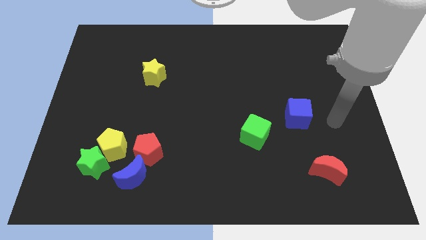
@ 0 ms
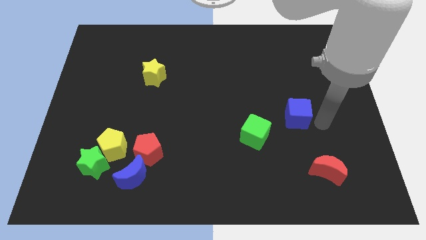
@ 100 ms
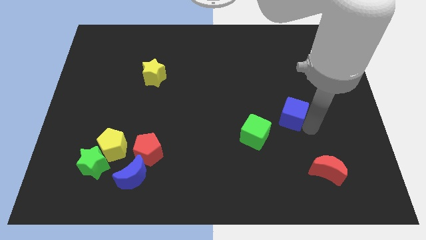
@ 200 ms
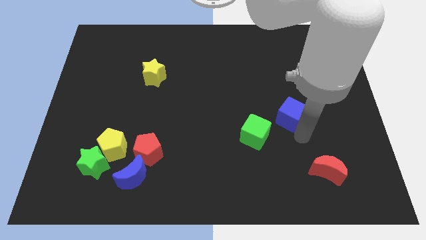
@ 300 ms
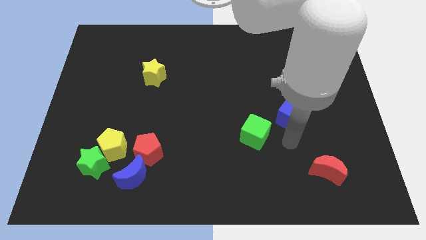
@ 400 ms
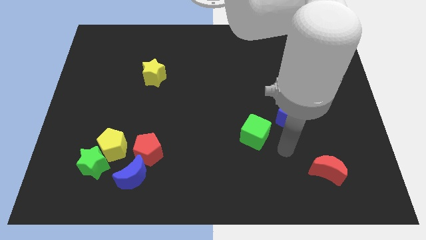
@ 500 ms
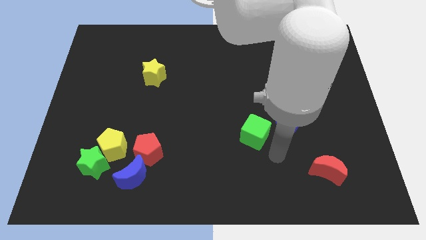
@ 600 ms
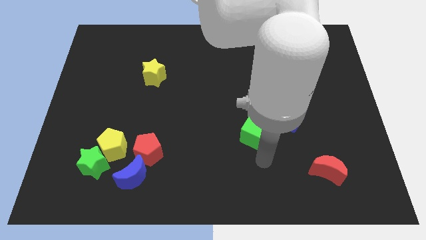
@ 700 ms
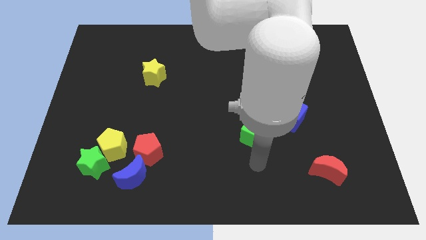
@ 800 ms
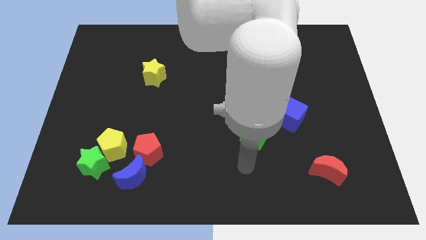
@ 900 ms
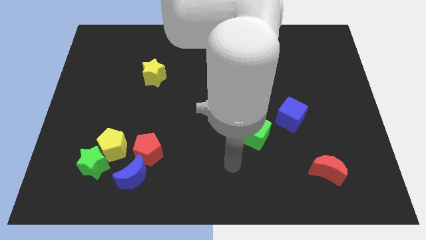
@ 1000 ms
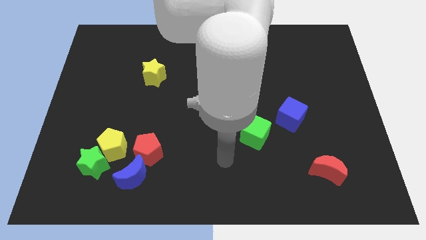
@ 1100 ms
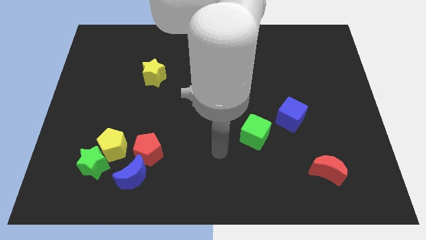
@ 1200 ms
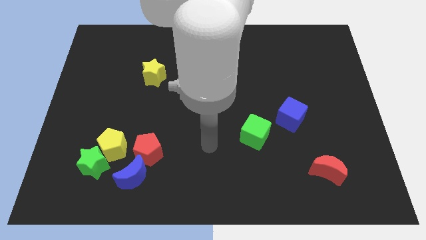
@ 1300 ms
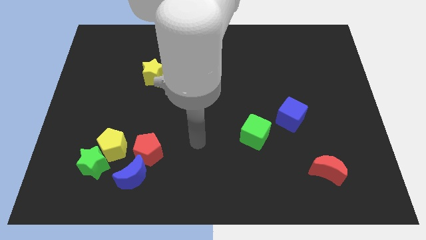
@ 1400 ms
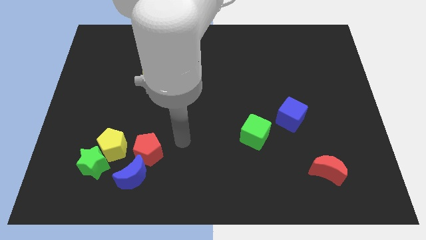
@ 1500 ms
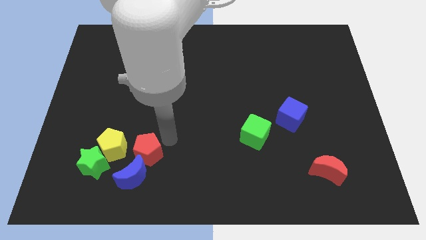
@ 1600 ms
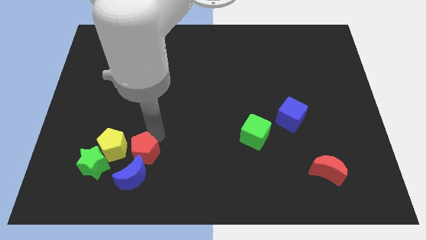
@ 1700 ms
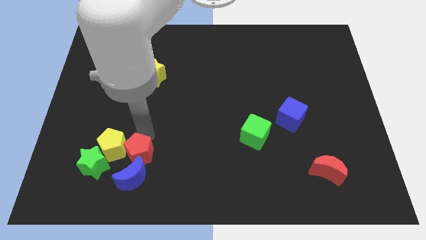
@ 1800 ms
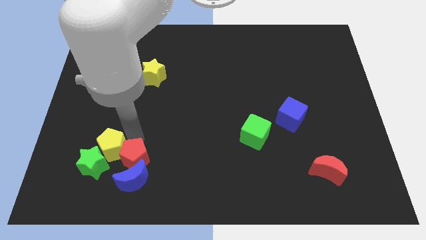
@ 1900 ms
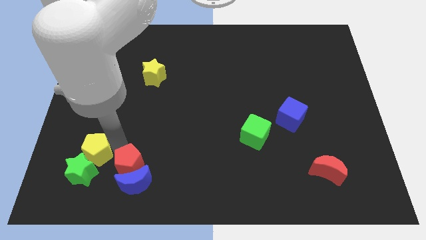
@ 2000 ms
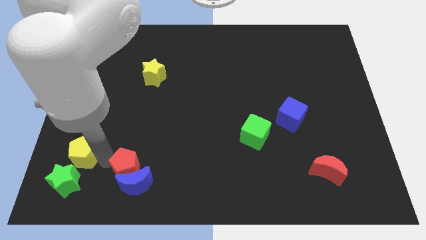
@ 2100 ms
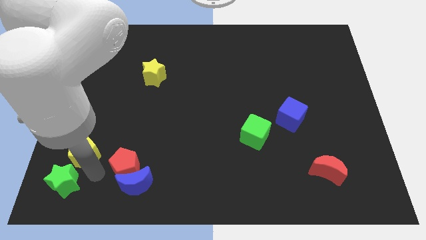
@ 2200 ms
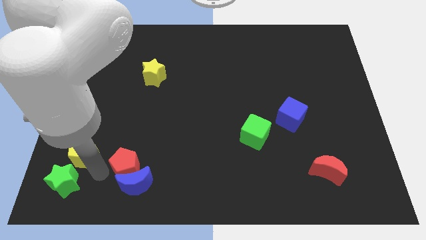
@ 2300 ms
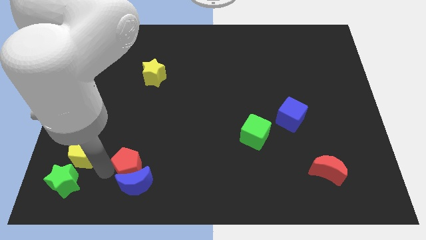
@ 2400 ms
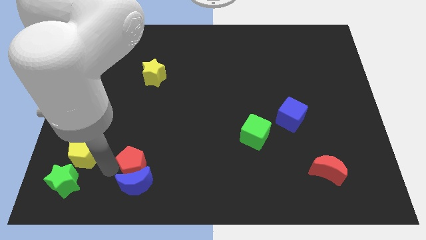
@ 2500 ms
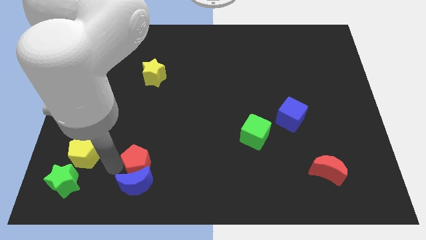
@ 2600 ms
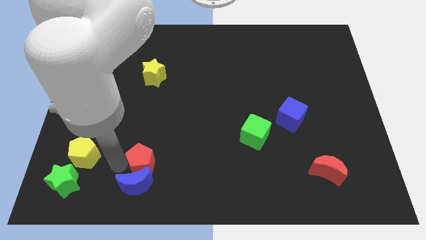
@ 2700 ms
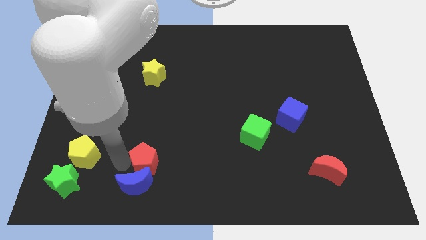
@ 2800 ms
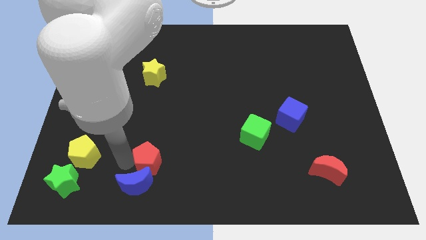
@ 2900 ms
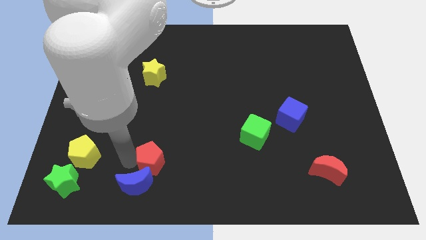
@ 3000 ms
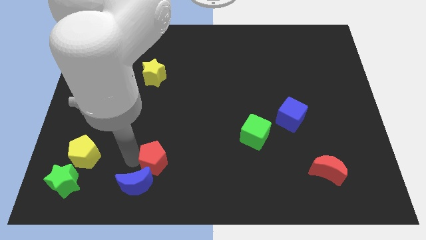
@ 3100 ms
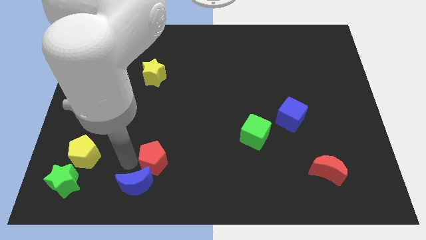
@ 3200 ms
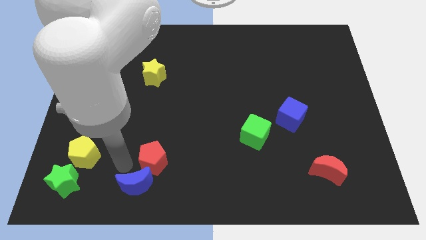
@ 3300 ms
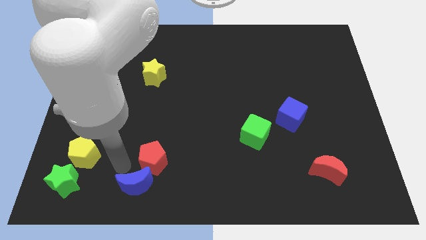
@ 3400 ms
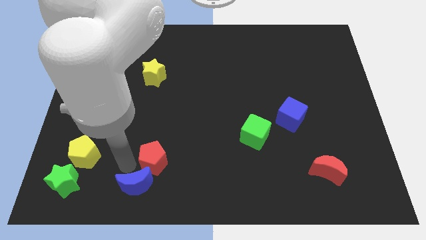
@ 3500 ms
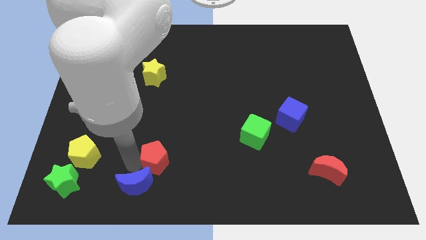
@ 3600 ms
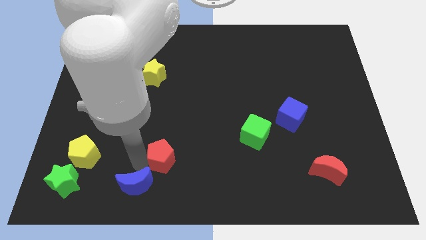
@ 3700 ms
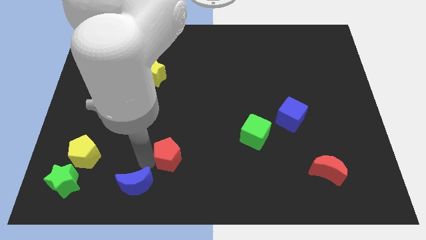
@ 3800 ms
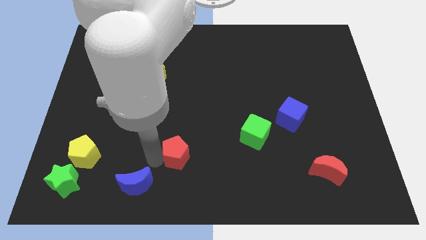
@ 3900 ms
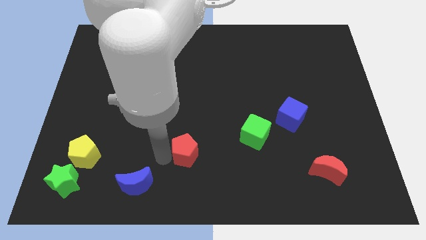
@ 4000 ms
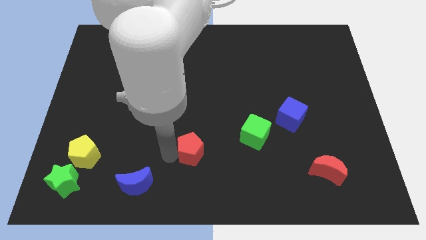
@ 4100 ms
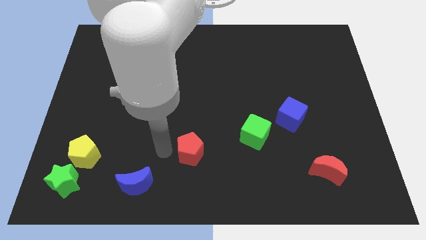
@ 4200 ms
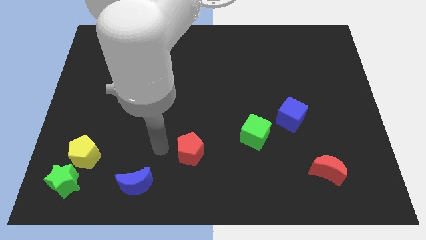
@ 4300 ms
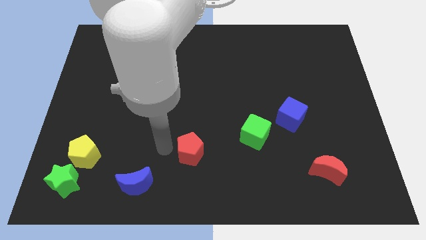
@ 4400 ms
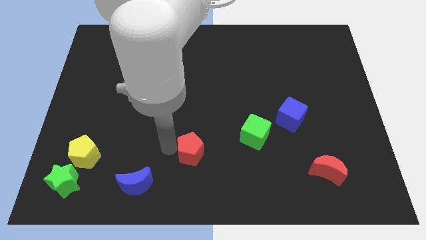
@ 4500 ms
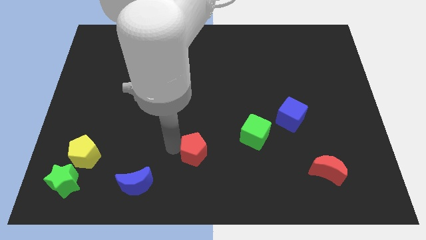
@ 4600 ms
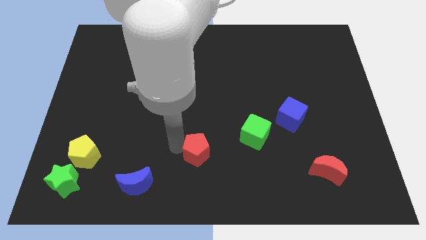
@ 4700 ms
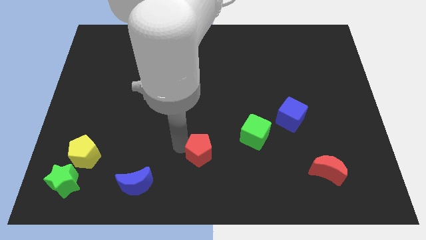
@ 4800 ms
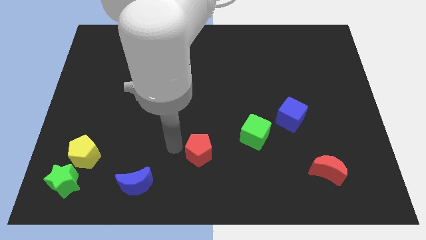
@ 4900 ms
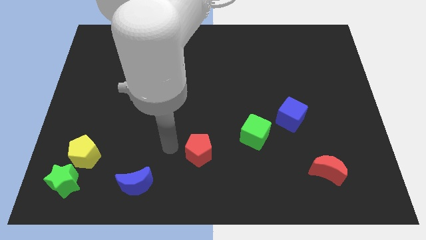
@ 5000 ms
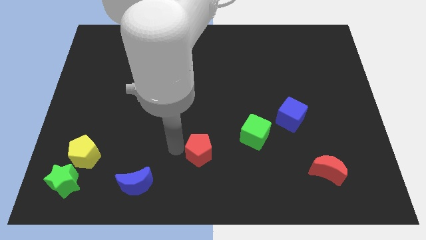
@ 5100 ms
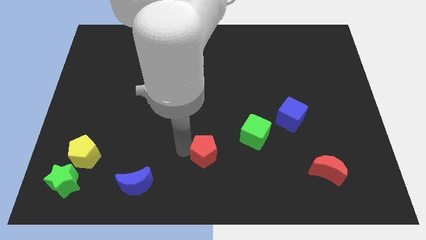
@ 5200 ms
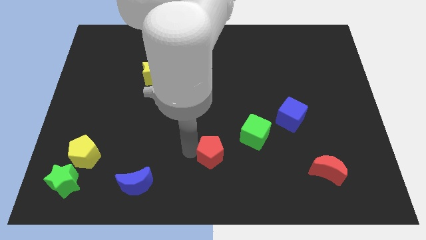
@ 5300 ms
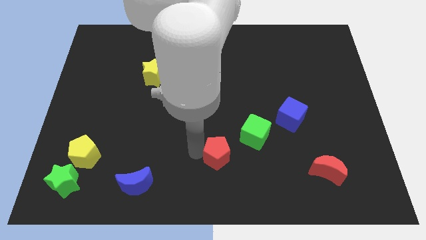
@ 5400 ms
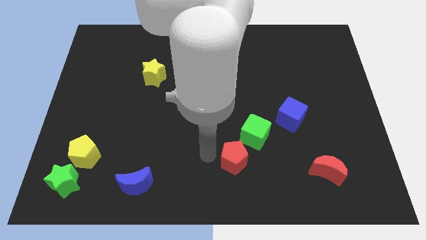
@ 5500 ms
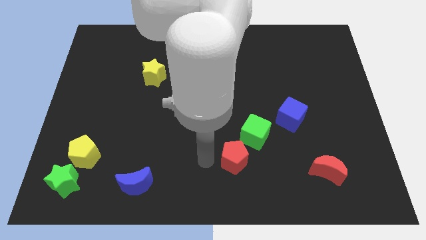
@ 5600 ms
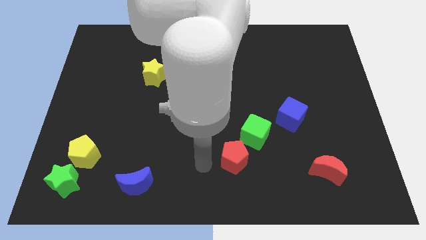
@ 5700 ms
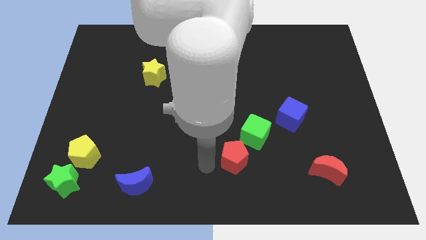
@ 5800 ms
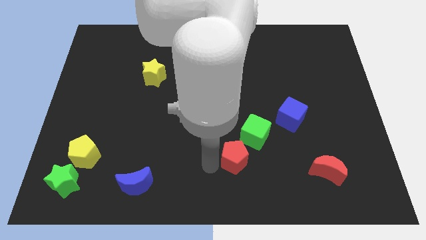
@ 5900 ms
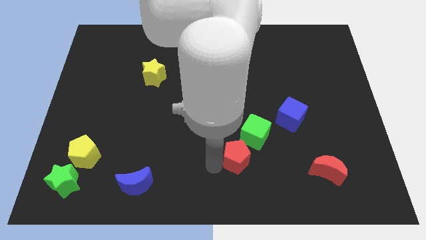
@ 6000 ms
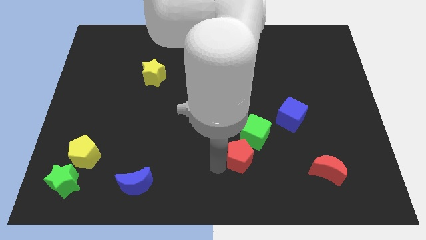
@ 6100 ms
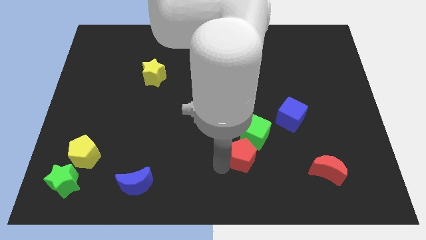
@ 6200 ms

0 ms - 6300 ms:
slide the red pentagon right

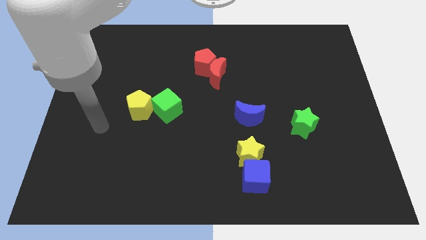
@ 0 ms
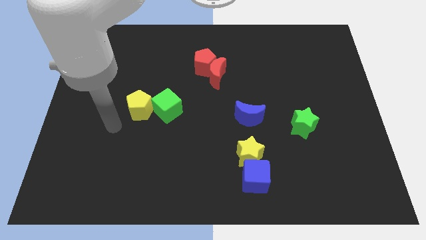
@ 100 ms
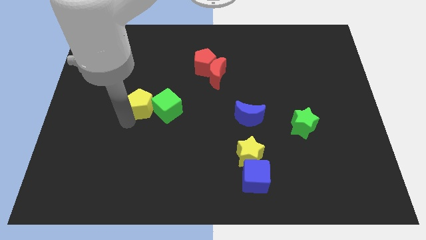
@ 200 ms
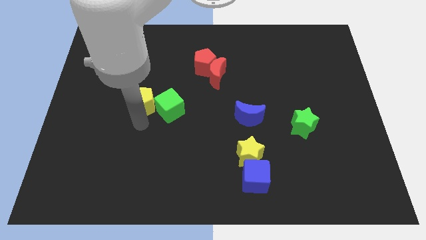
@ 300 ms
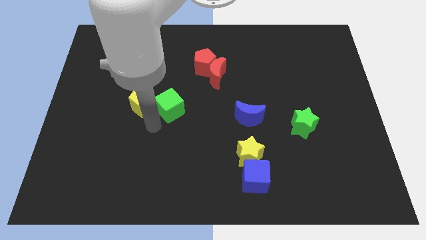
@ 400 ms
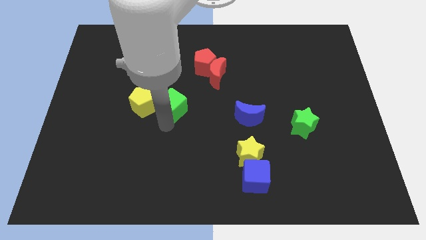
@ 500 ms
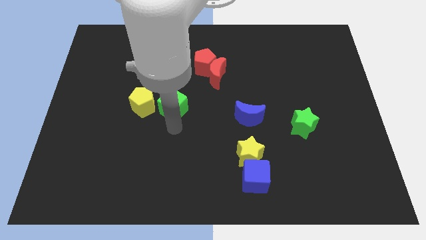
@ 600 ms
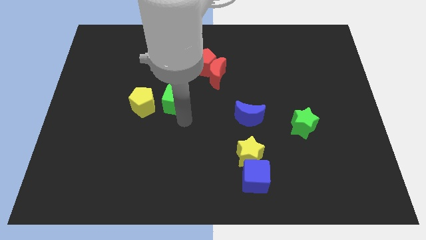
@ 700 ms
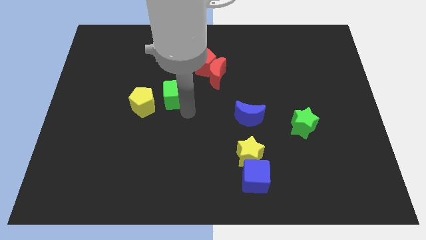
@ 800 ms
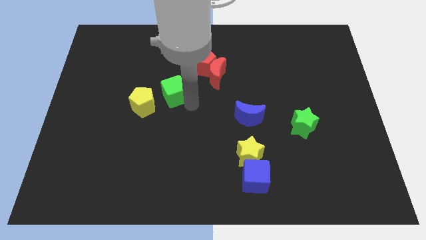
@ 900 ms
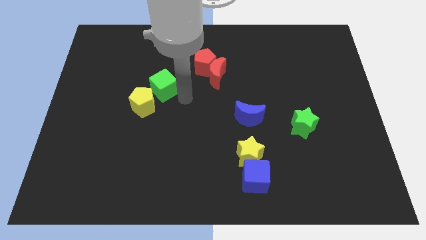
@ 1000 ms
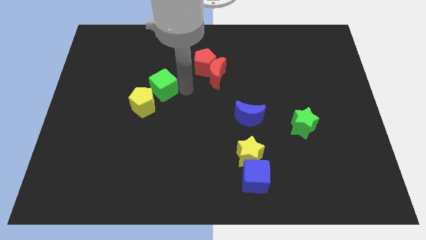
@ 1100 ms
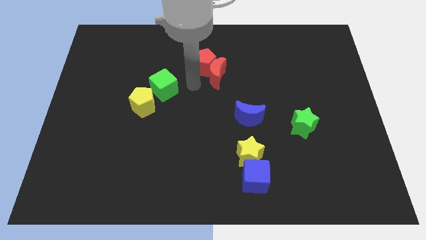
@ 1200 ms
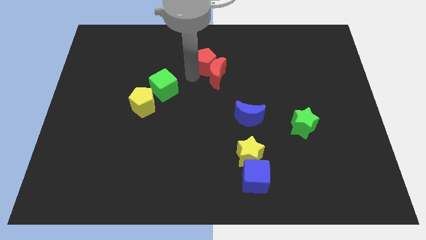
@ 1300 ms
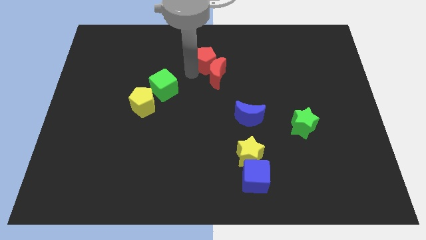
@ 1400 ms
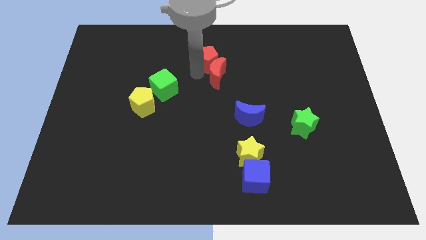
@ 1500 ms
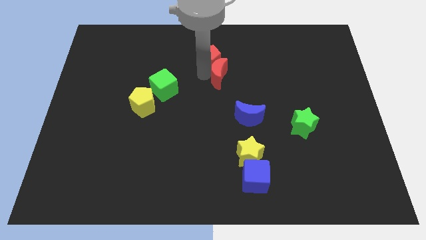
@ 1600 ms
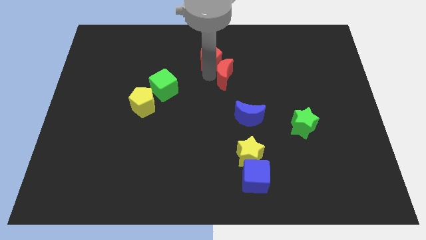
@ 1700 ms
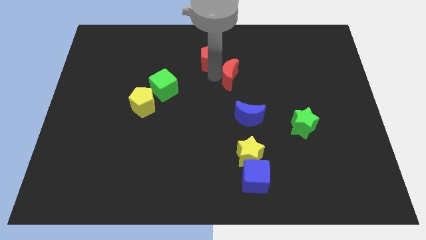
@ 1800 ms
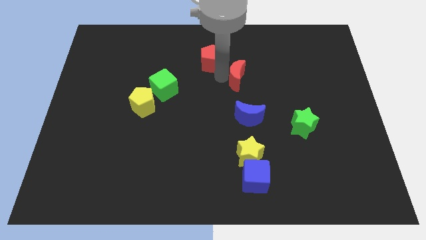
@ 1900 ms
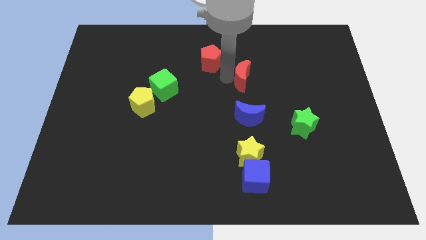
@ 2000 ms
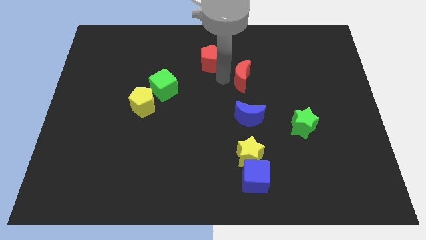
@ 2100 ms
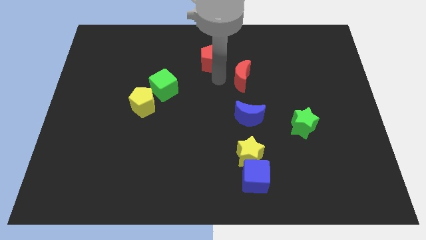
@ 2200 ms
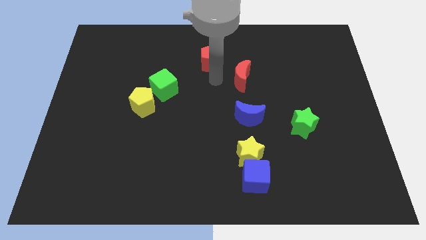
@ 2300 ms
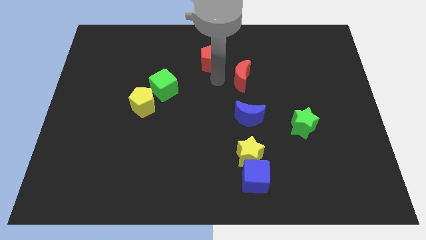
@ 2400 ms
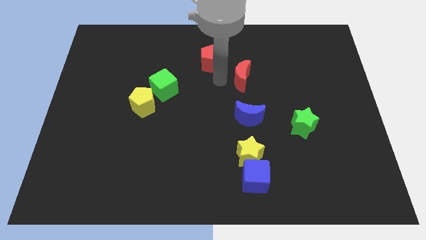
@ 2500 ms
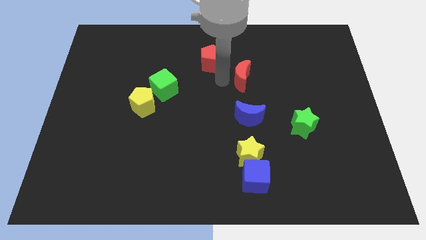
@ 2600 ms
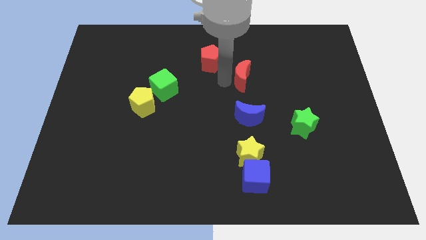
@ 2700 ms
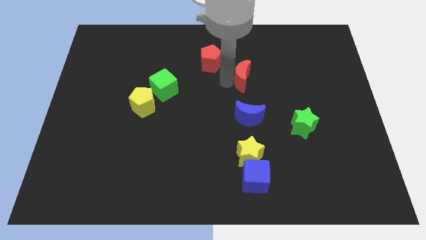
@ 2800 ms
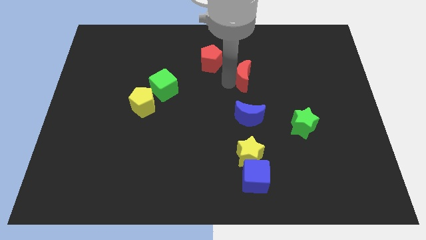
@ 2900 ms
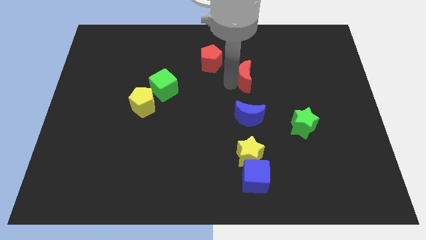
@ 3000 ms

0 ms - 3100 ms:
slide the red moon somewhat to the right
